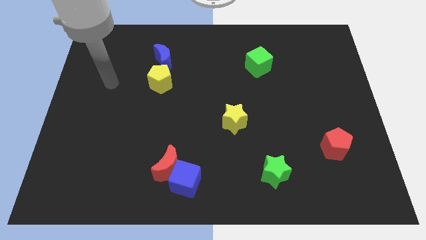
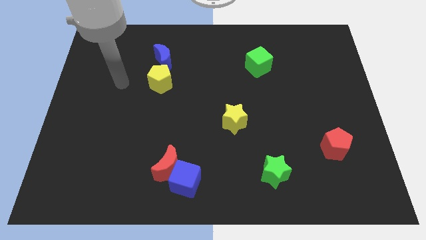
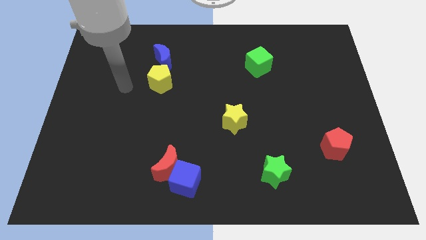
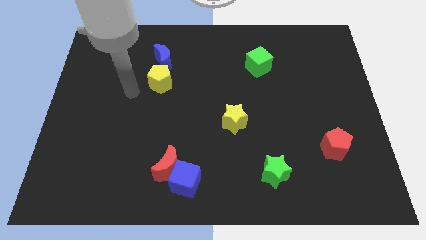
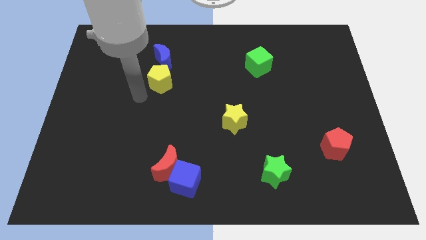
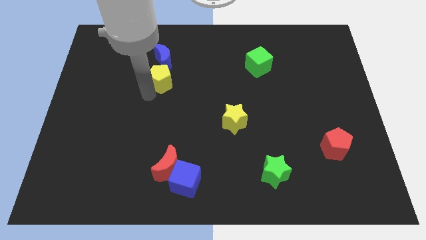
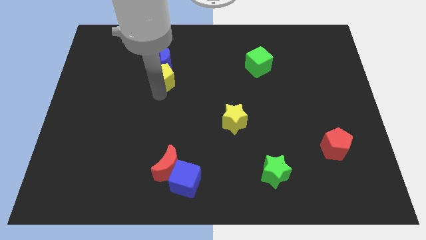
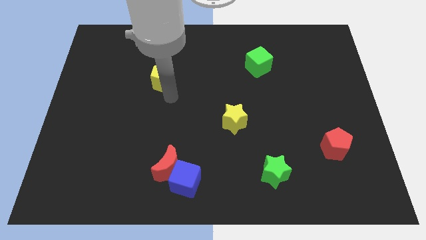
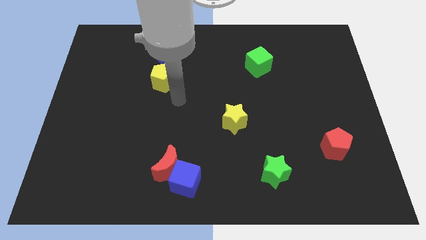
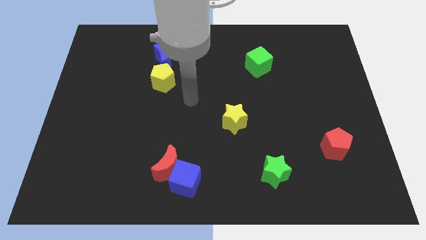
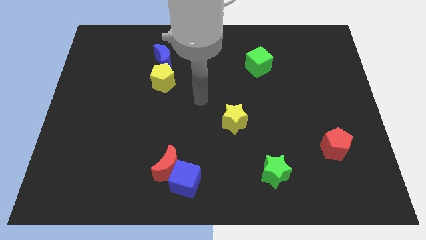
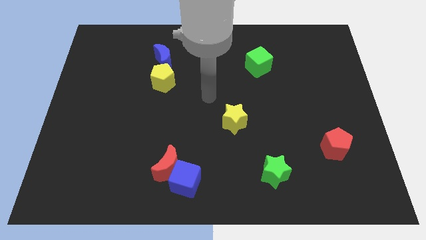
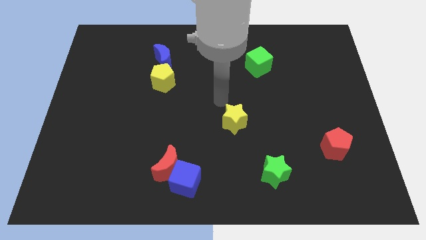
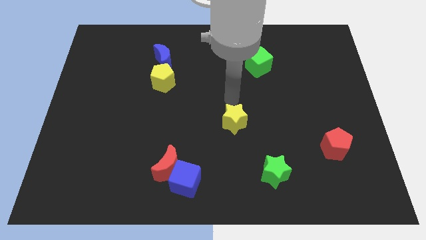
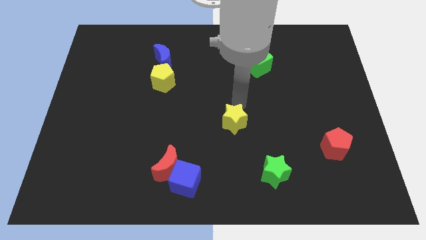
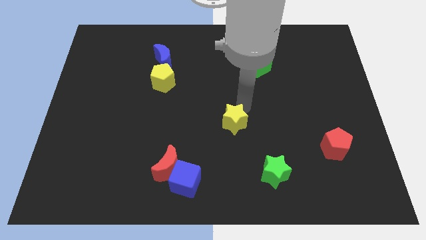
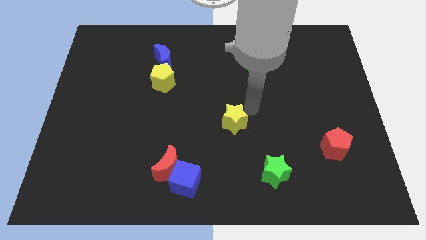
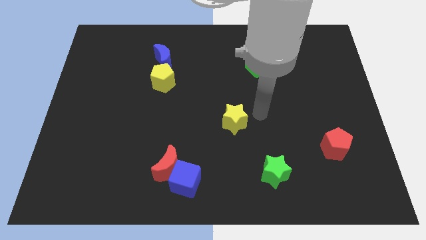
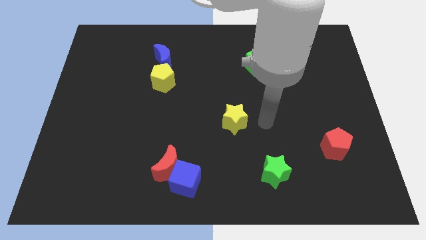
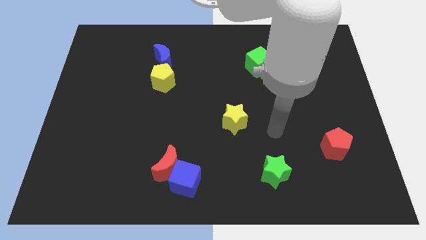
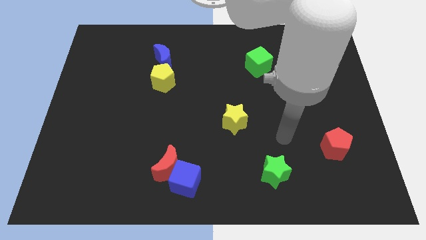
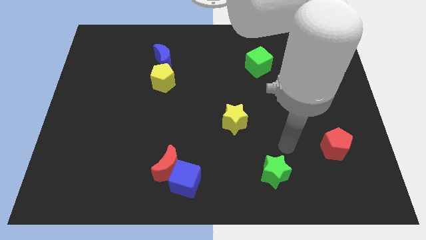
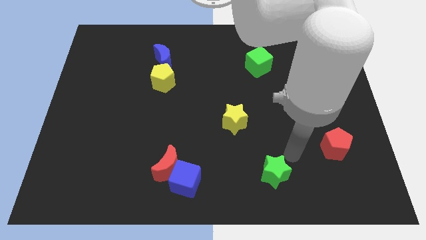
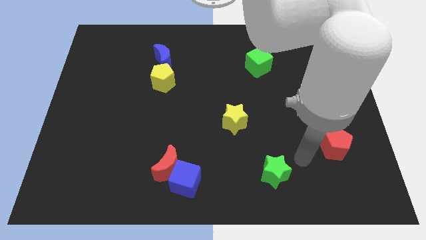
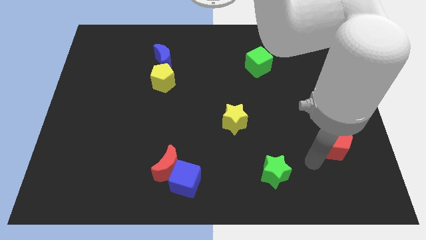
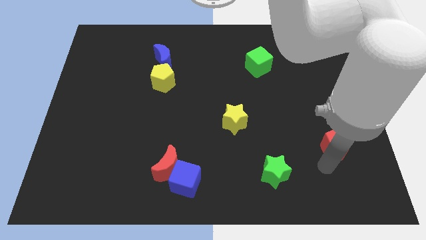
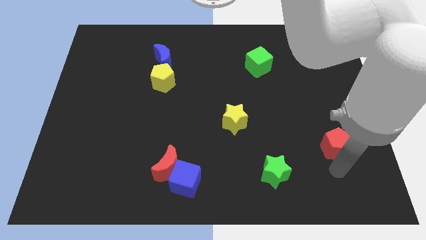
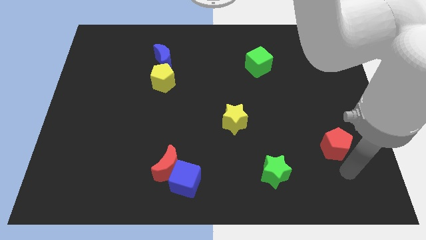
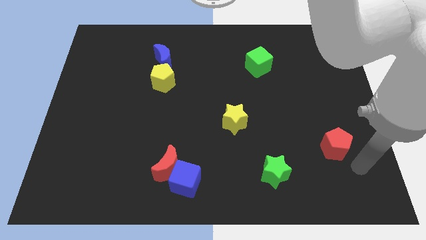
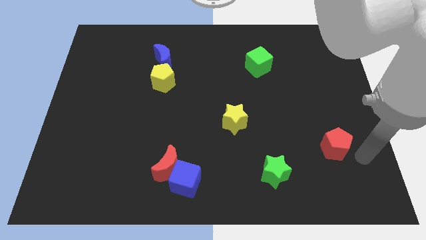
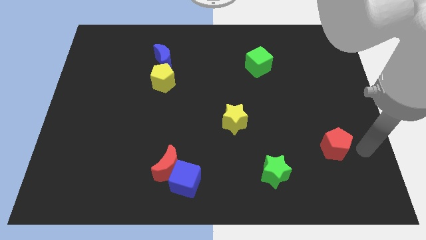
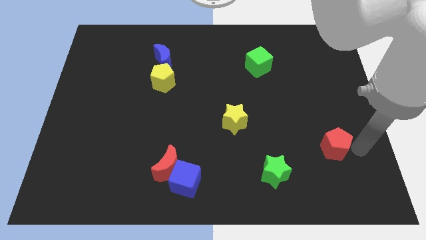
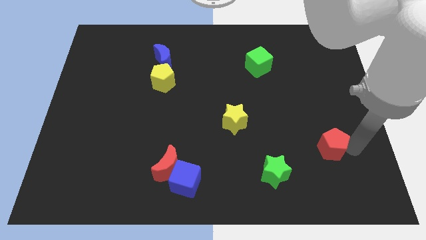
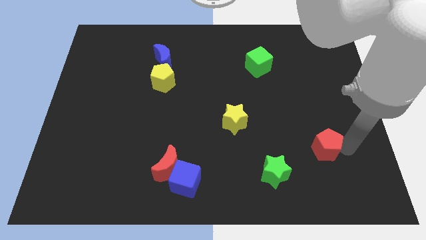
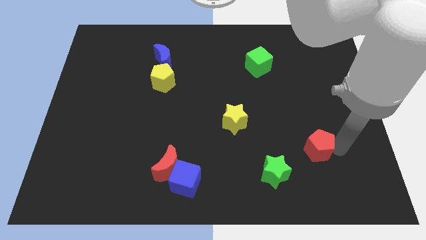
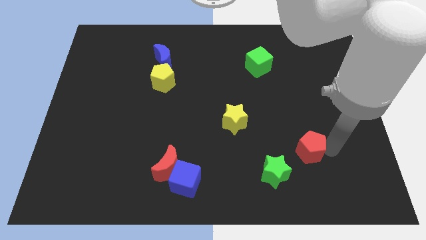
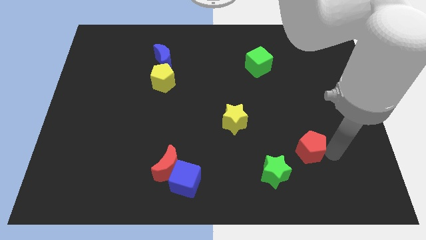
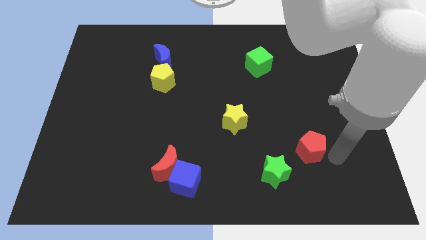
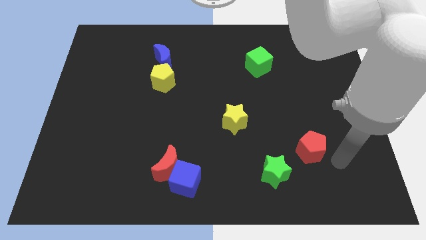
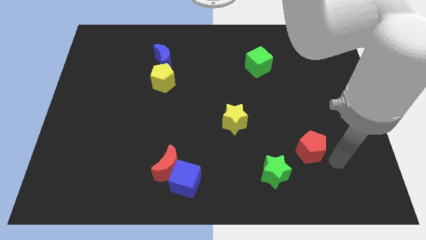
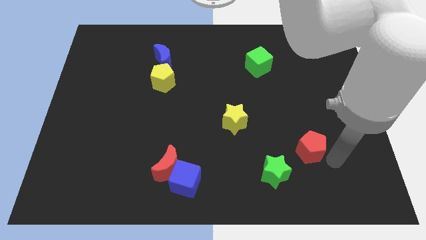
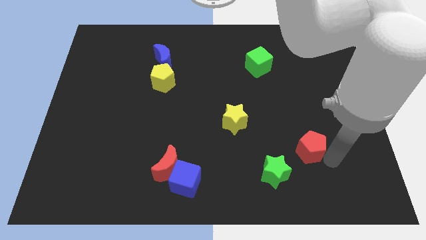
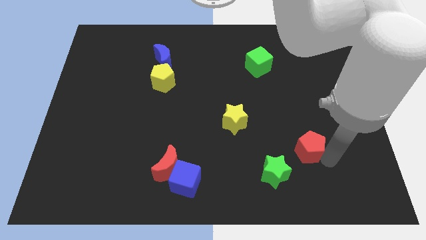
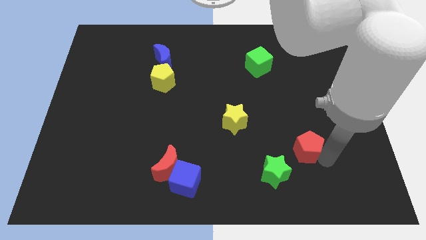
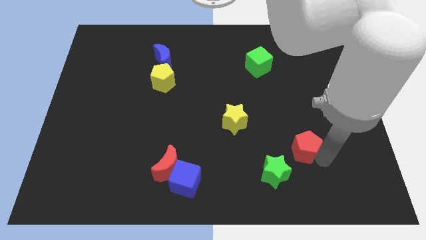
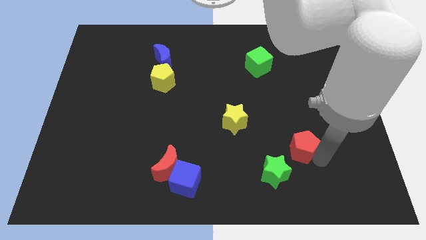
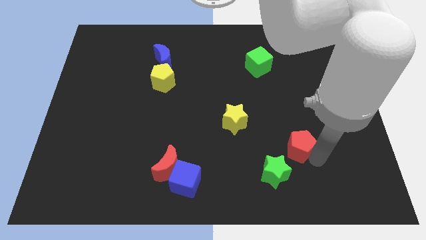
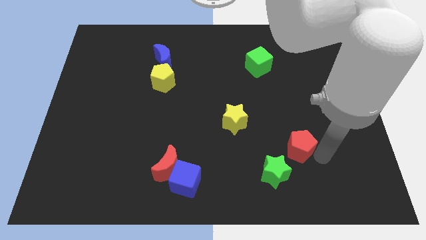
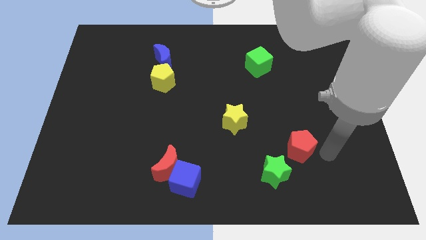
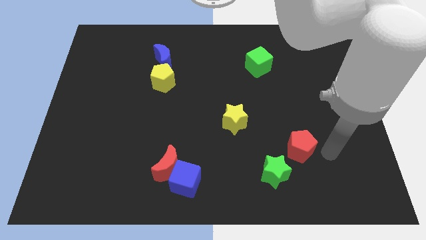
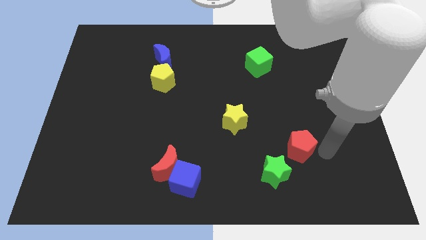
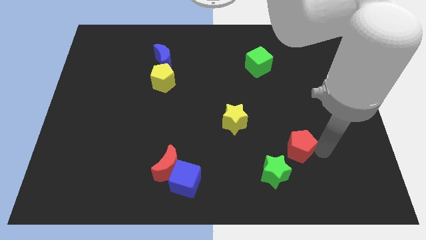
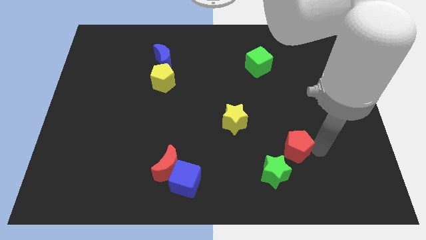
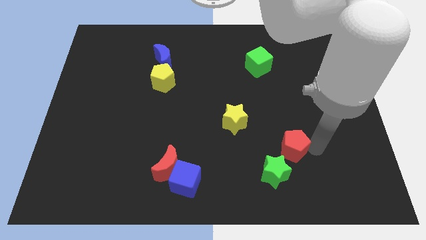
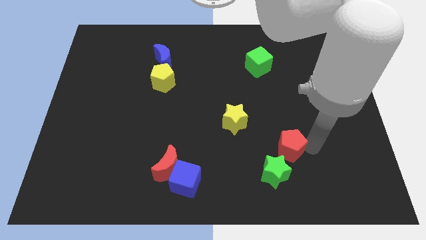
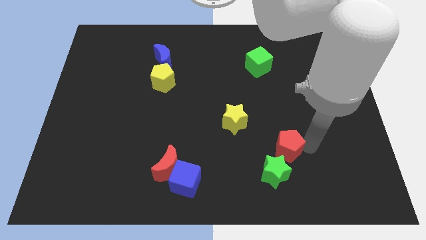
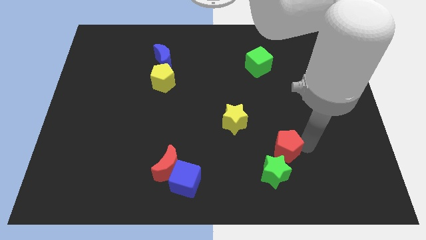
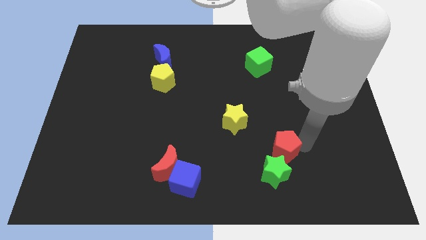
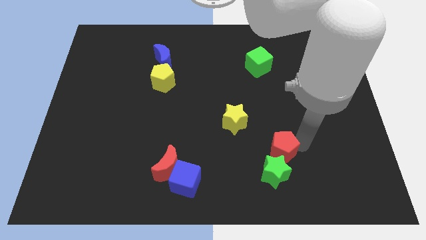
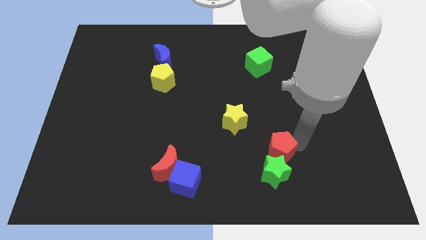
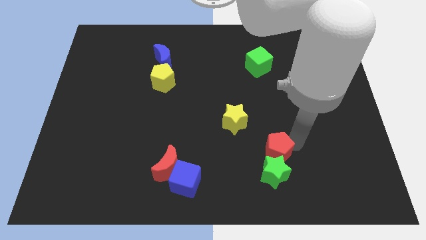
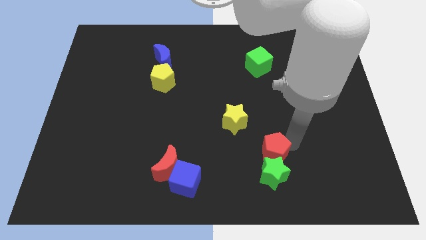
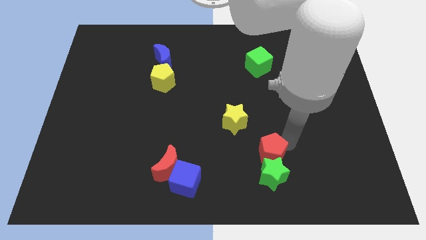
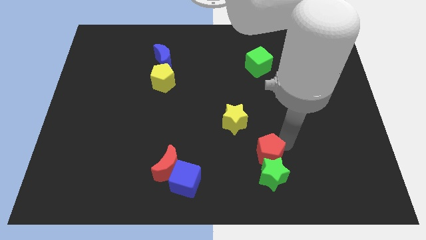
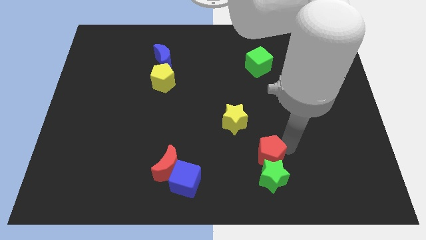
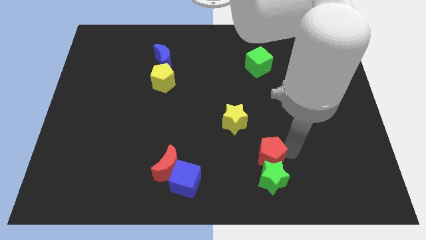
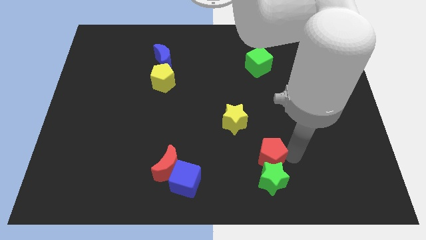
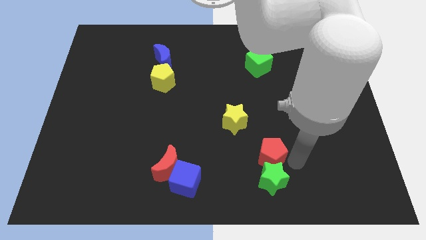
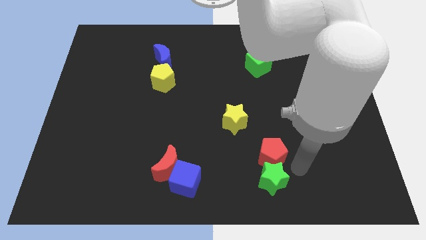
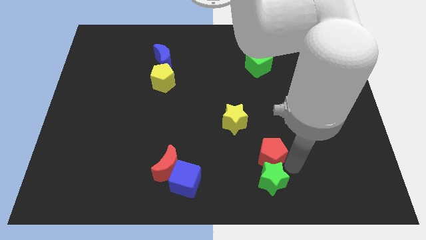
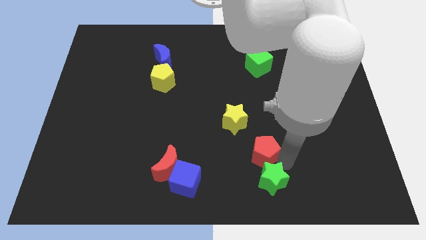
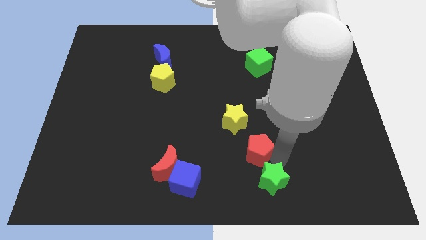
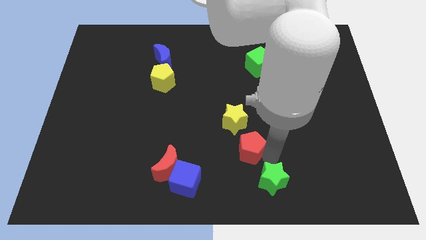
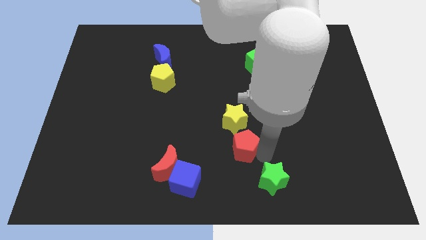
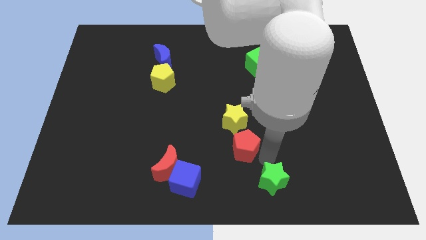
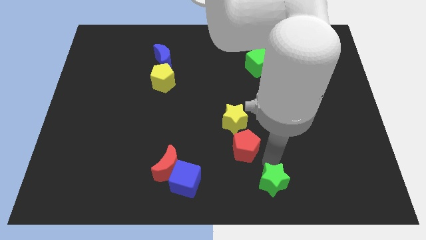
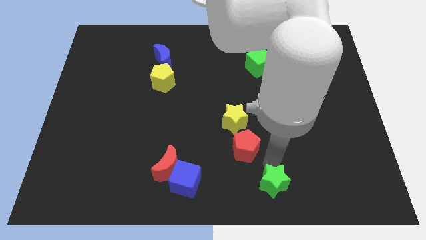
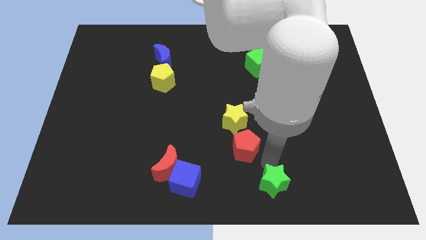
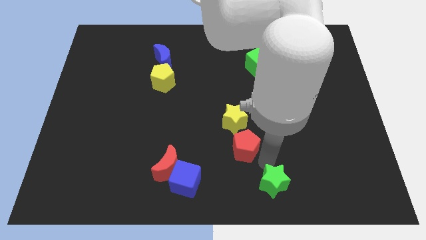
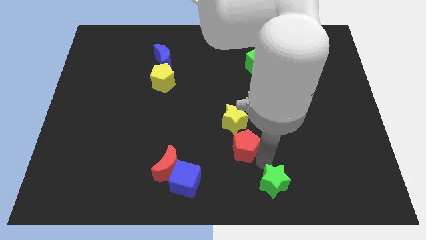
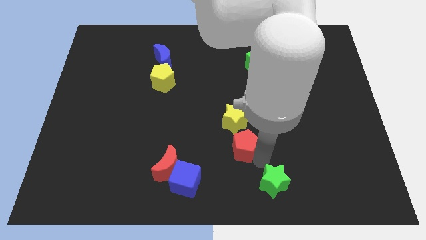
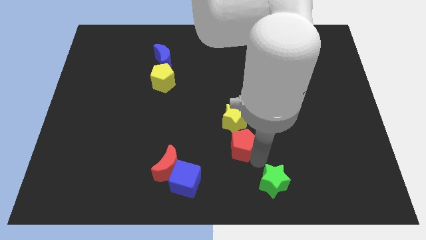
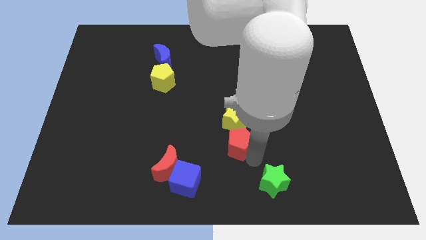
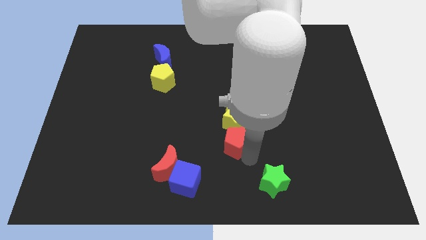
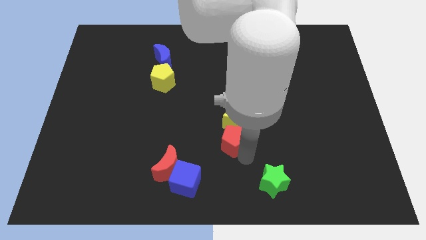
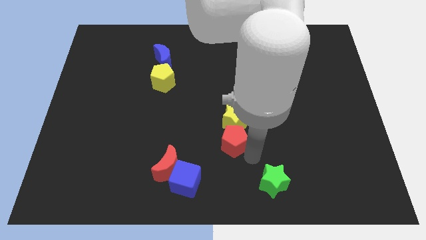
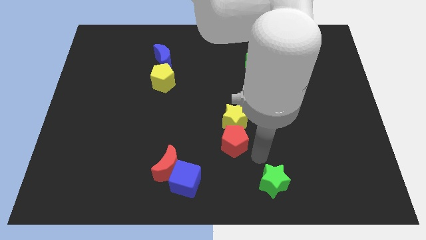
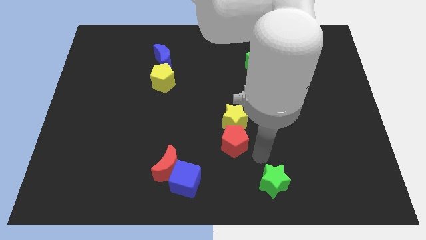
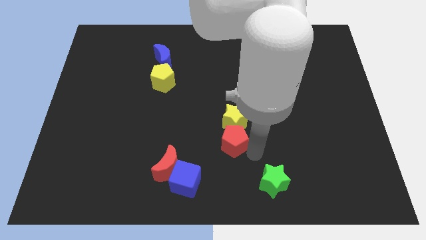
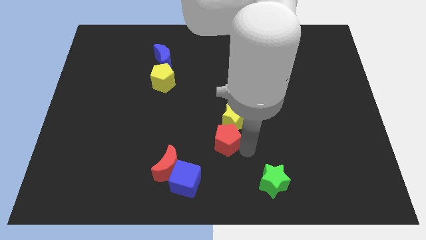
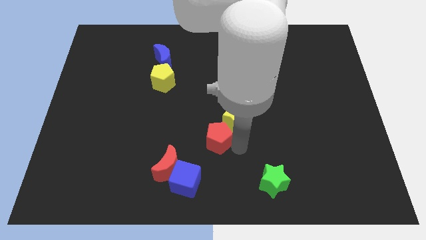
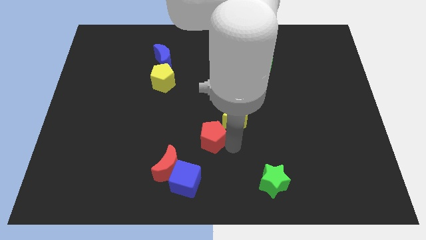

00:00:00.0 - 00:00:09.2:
slide the red pentagon left of the yellow star
